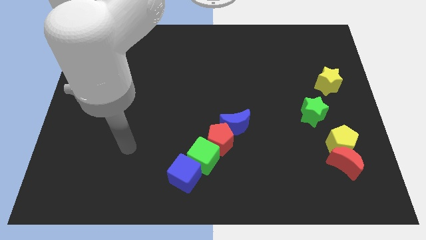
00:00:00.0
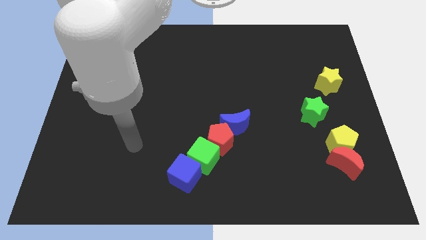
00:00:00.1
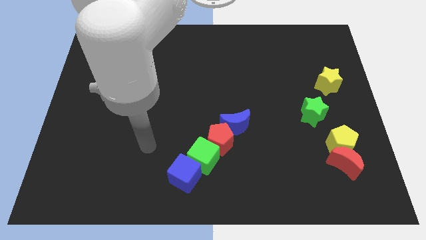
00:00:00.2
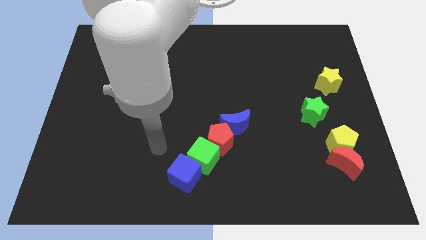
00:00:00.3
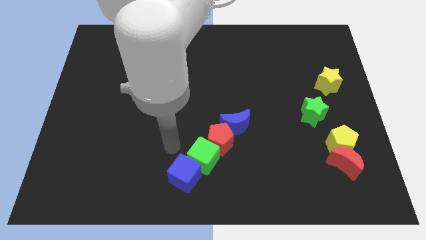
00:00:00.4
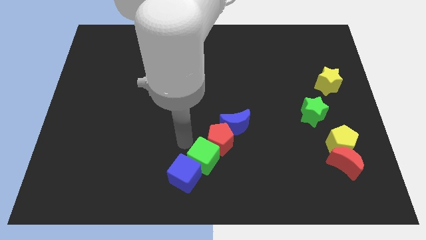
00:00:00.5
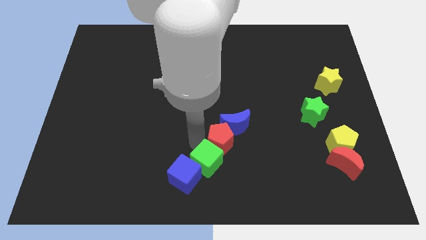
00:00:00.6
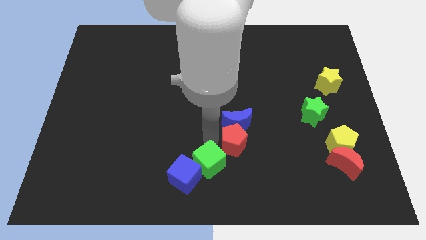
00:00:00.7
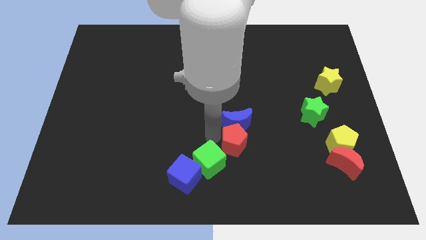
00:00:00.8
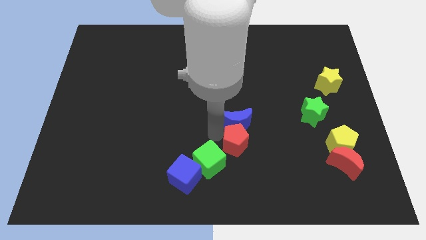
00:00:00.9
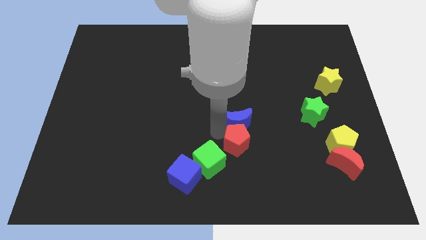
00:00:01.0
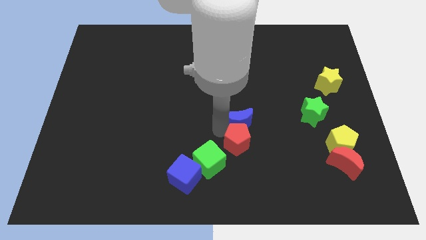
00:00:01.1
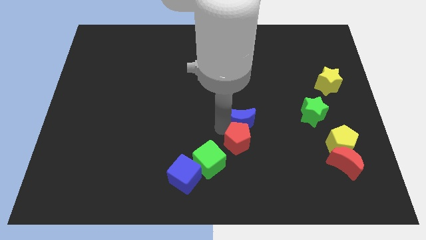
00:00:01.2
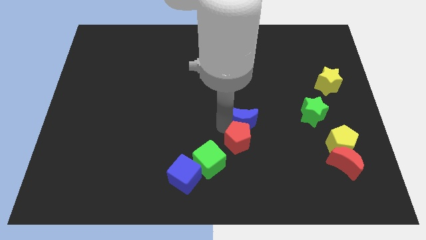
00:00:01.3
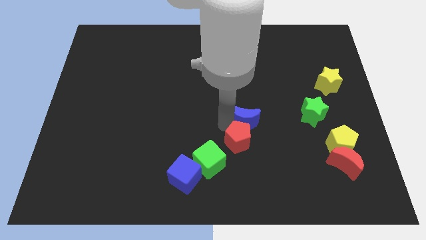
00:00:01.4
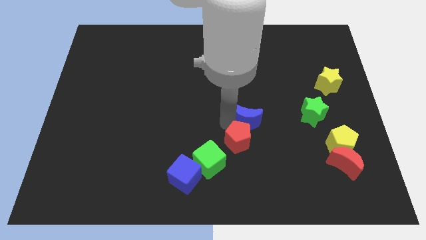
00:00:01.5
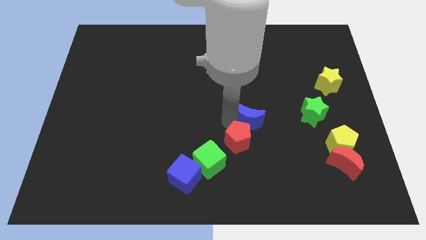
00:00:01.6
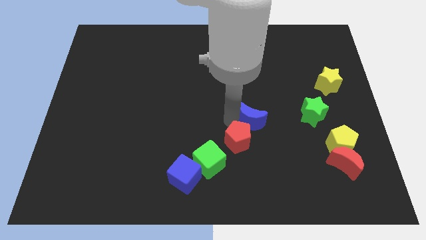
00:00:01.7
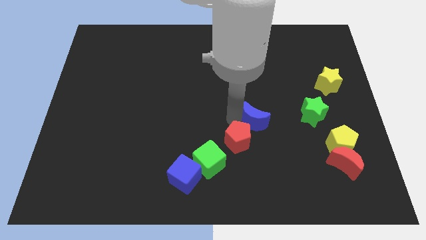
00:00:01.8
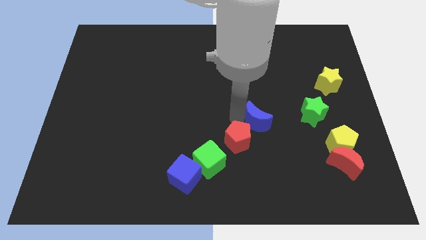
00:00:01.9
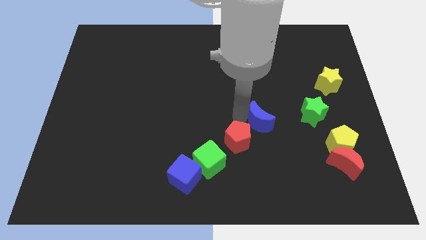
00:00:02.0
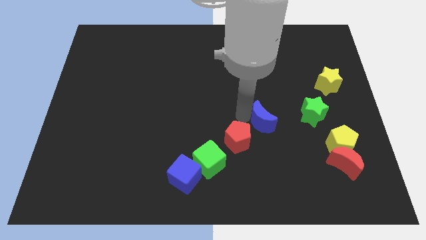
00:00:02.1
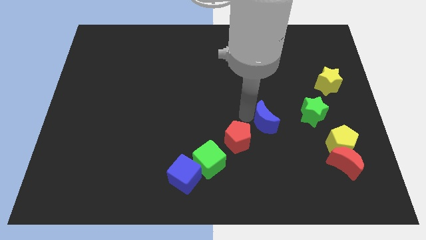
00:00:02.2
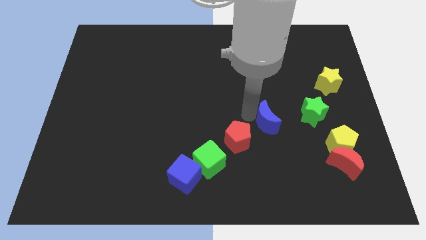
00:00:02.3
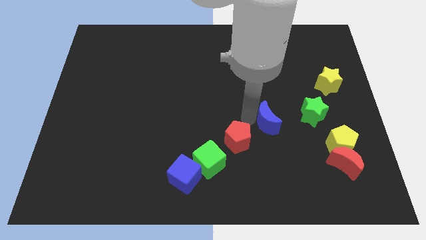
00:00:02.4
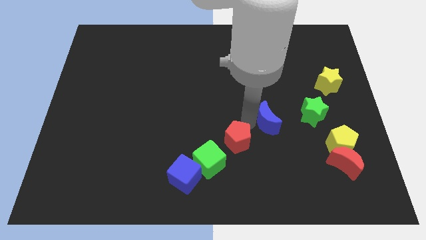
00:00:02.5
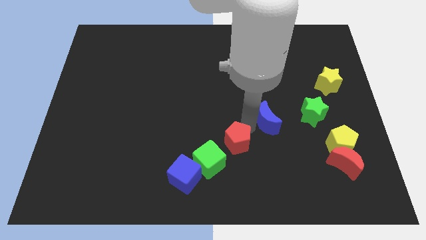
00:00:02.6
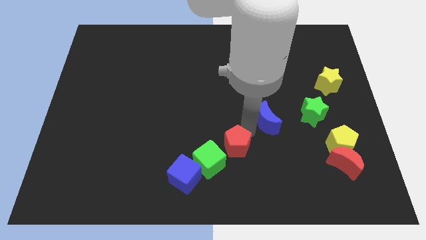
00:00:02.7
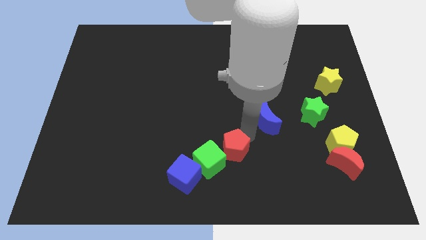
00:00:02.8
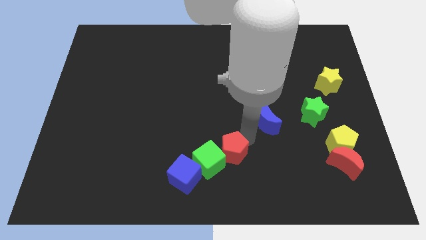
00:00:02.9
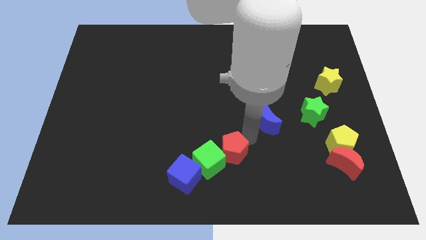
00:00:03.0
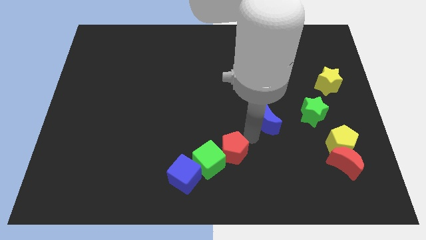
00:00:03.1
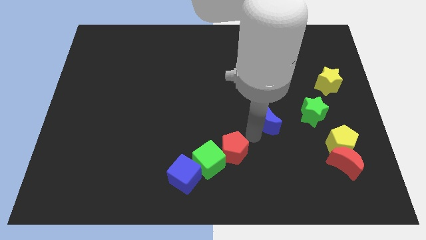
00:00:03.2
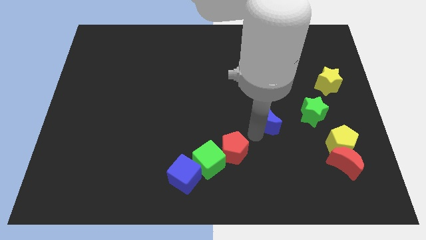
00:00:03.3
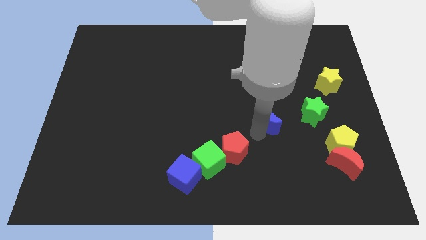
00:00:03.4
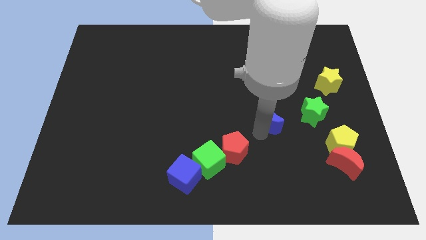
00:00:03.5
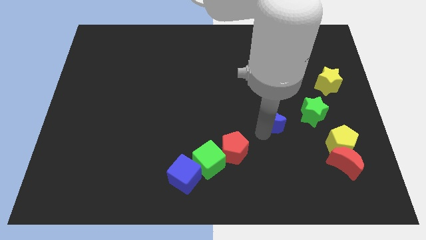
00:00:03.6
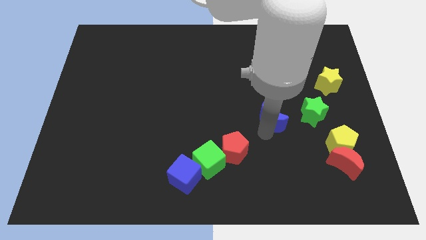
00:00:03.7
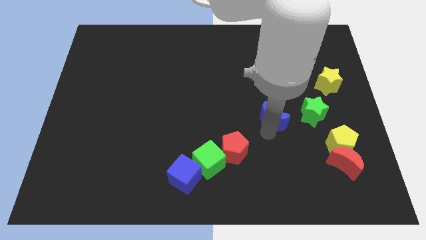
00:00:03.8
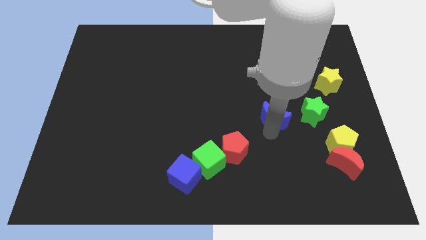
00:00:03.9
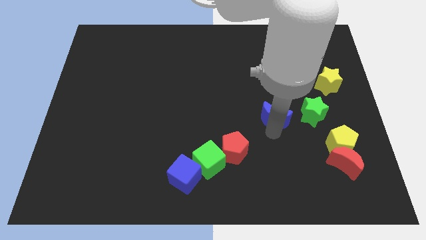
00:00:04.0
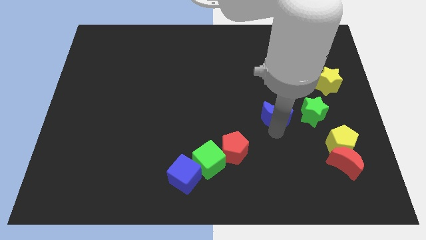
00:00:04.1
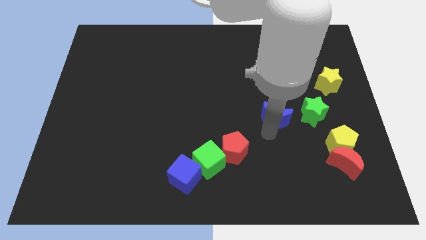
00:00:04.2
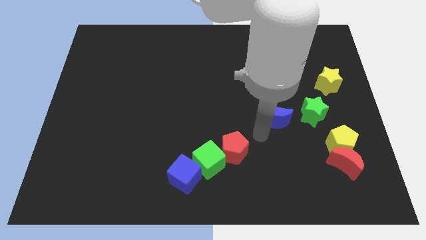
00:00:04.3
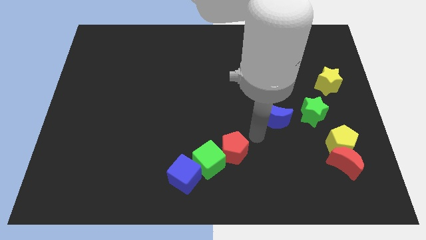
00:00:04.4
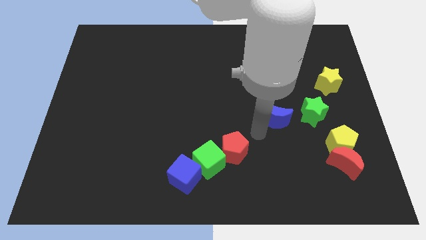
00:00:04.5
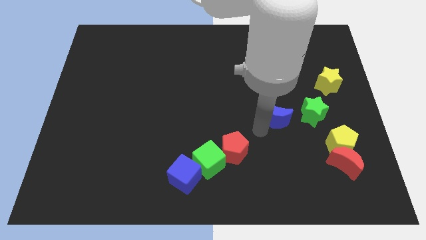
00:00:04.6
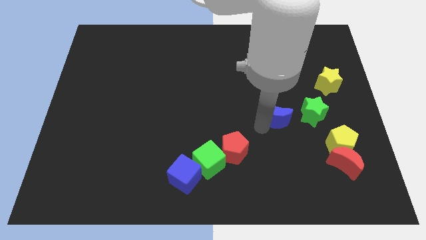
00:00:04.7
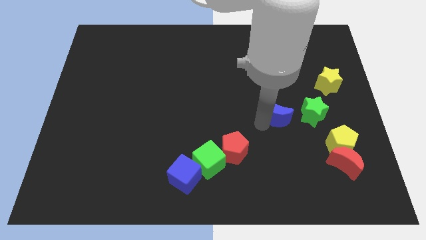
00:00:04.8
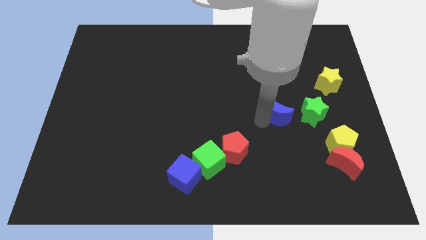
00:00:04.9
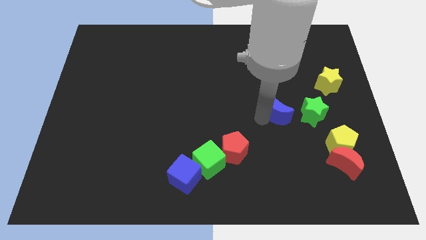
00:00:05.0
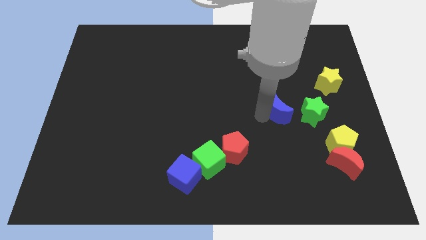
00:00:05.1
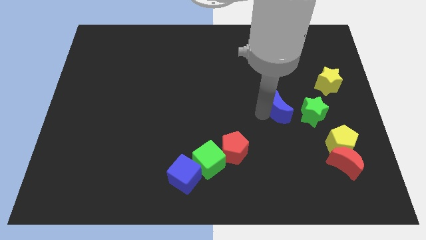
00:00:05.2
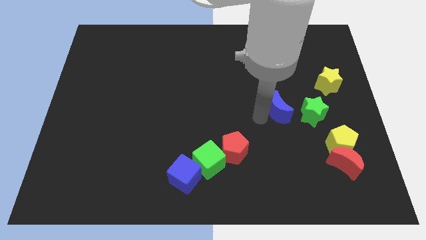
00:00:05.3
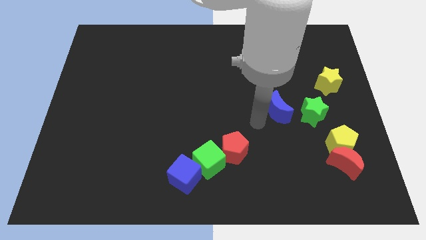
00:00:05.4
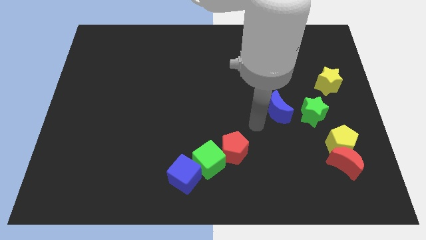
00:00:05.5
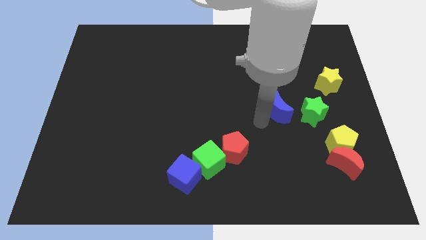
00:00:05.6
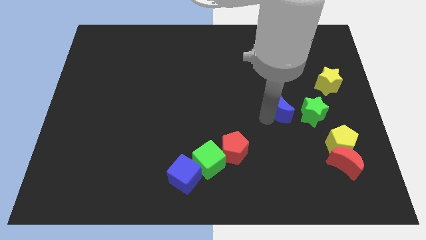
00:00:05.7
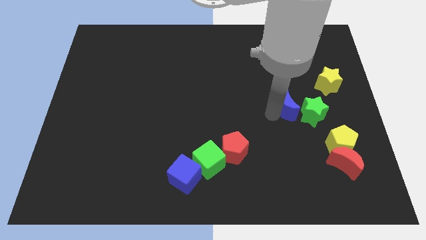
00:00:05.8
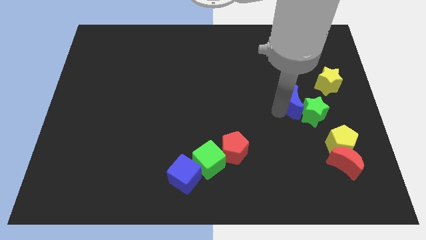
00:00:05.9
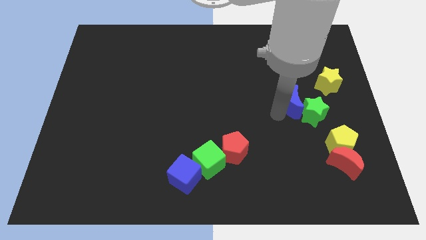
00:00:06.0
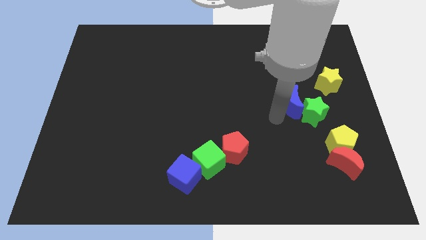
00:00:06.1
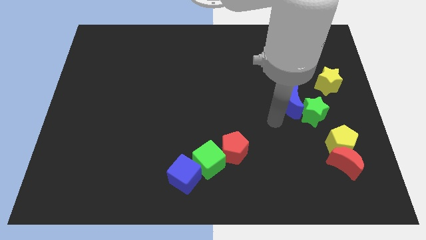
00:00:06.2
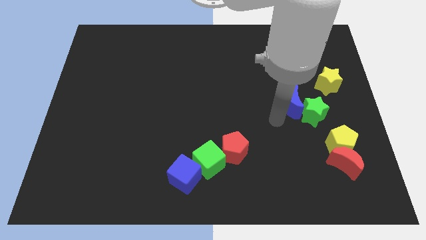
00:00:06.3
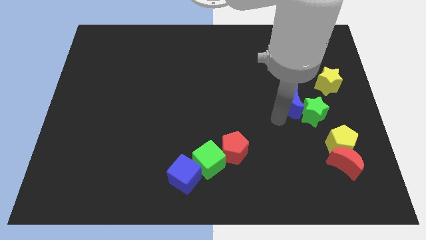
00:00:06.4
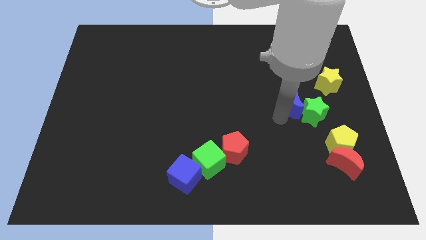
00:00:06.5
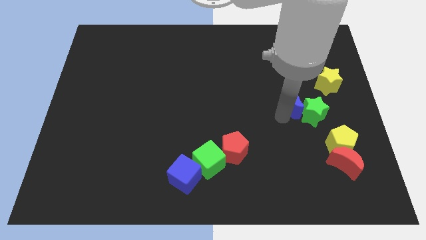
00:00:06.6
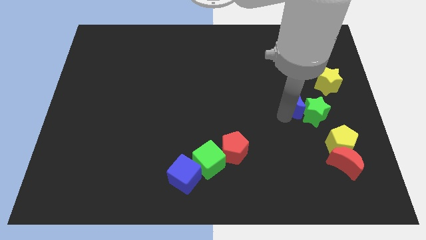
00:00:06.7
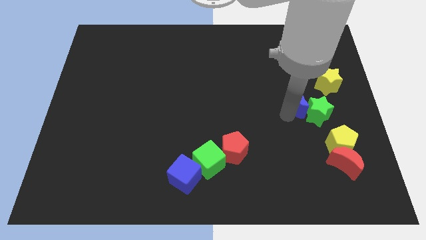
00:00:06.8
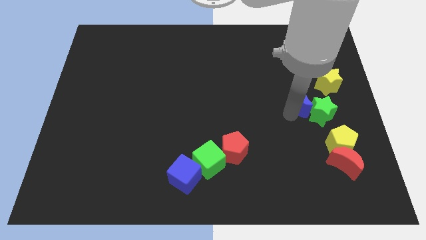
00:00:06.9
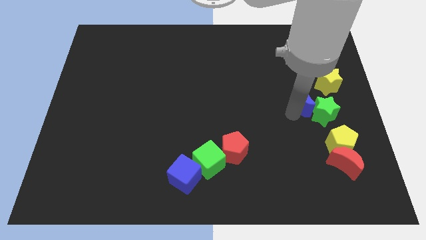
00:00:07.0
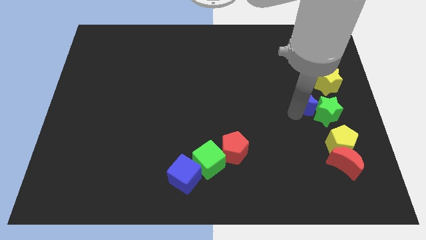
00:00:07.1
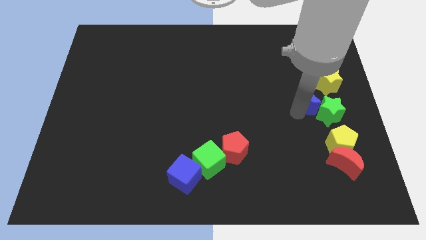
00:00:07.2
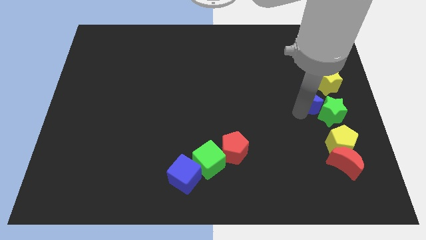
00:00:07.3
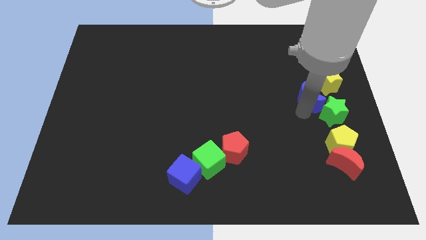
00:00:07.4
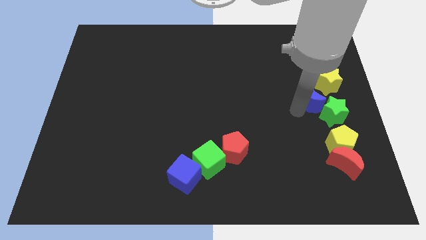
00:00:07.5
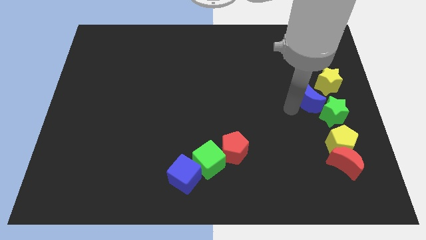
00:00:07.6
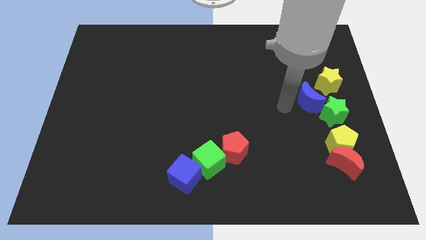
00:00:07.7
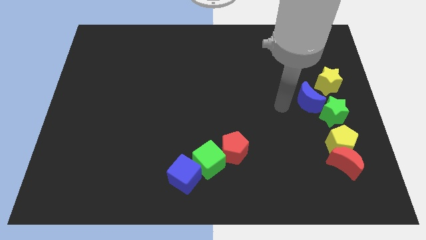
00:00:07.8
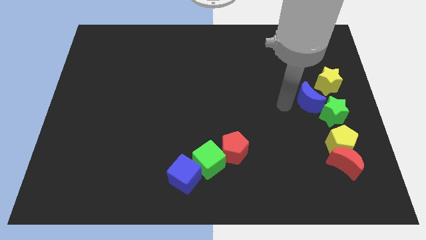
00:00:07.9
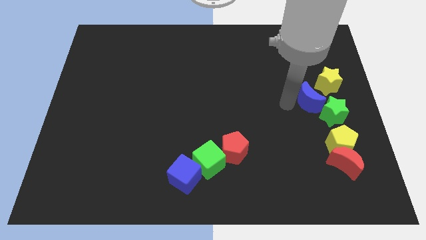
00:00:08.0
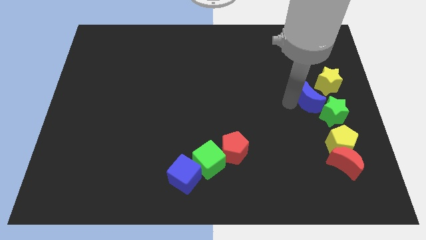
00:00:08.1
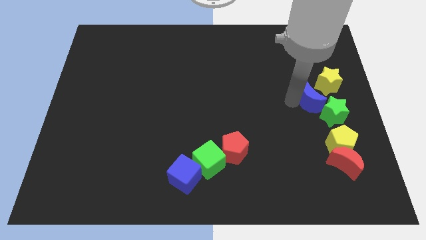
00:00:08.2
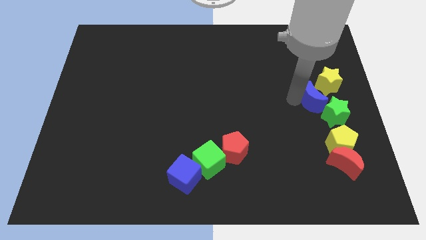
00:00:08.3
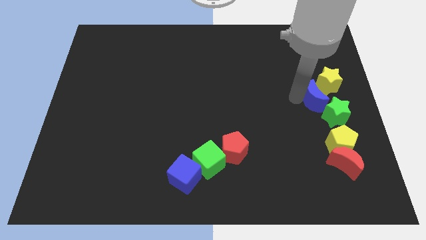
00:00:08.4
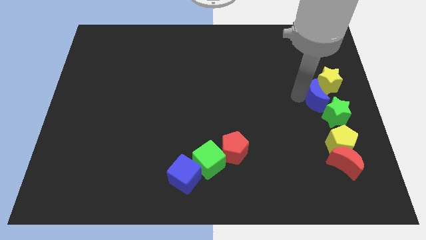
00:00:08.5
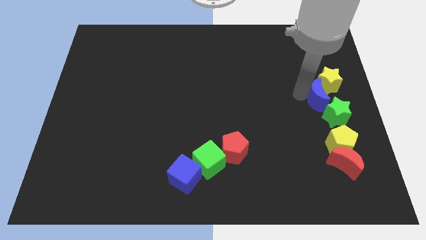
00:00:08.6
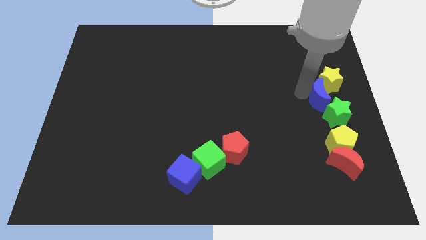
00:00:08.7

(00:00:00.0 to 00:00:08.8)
slide the blue moon to the right side
